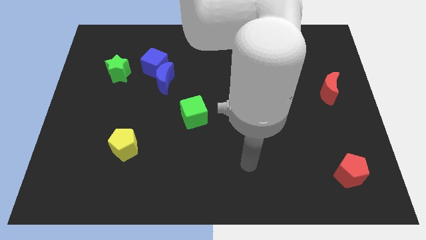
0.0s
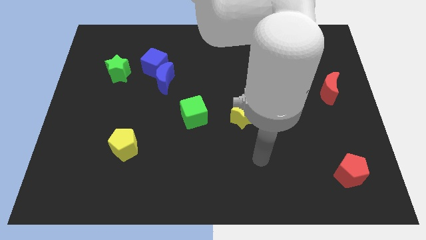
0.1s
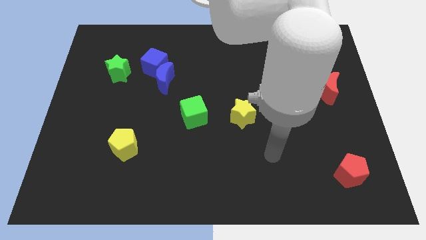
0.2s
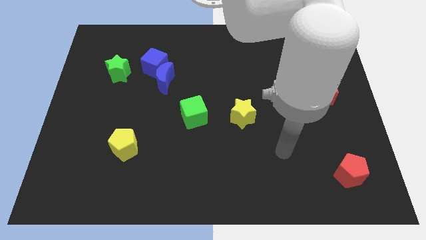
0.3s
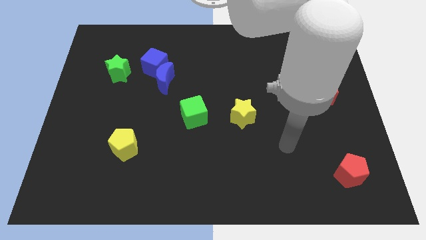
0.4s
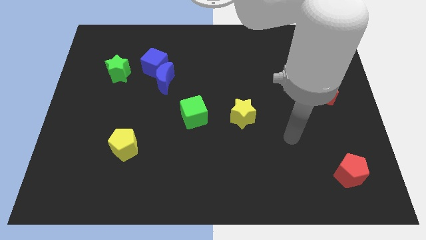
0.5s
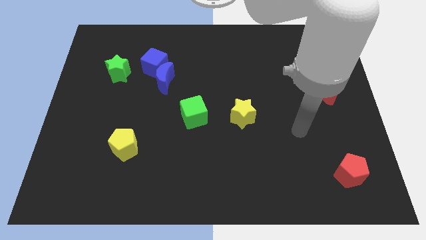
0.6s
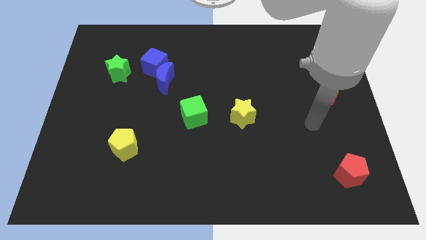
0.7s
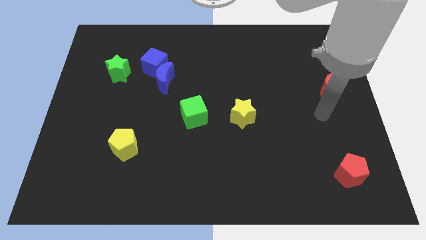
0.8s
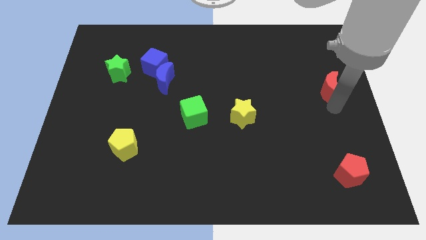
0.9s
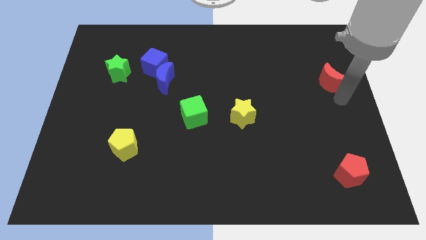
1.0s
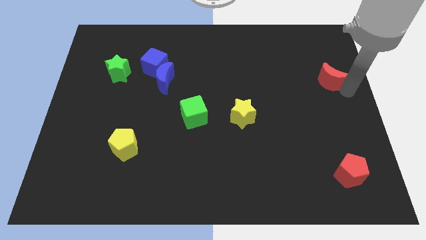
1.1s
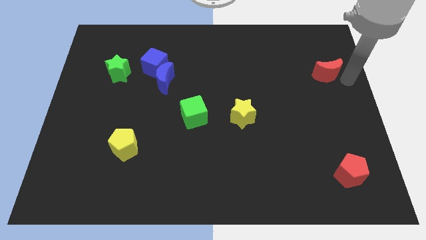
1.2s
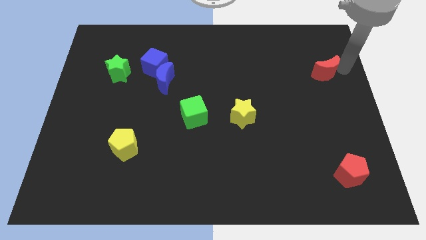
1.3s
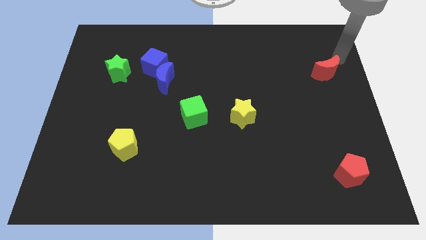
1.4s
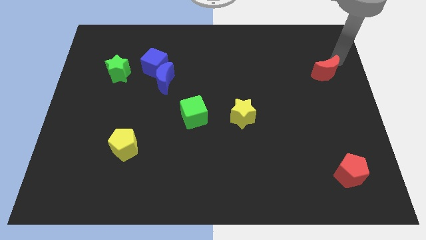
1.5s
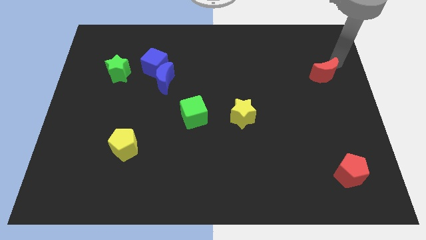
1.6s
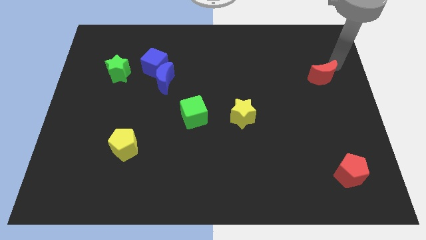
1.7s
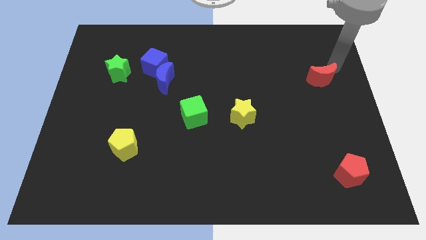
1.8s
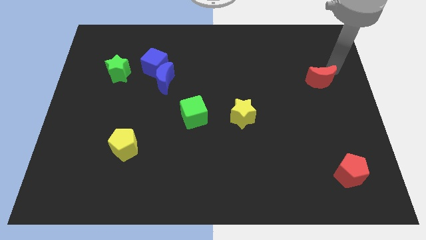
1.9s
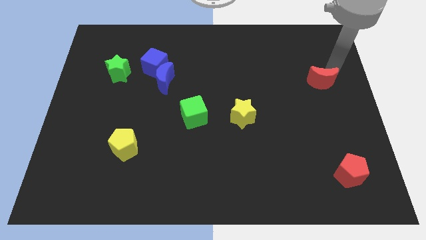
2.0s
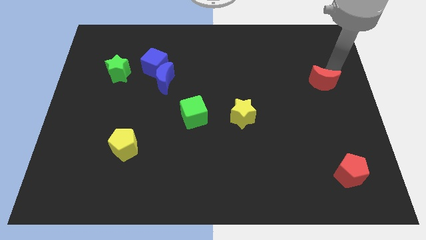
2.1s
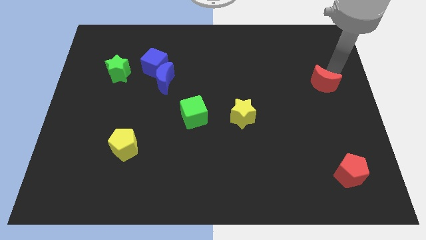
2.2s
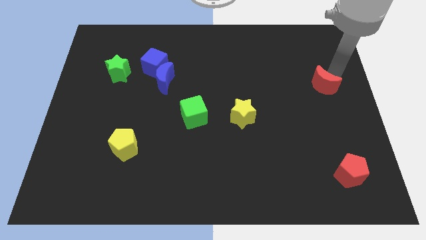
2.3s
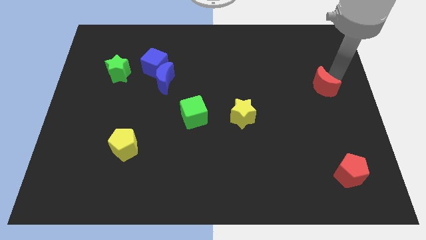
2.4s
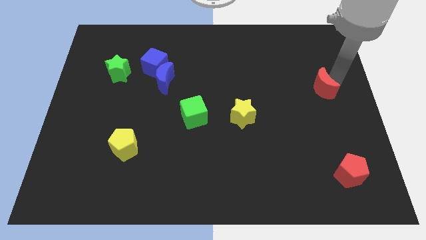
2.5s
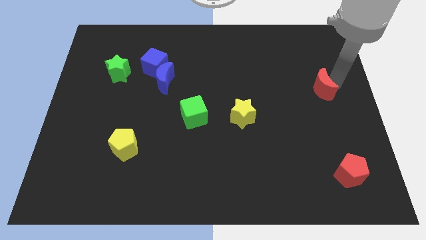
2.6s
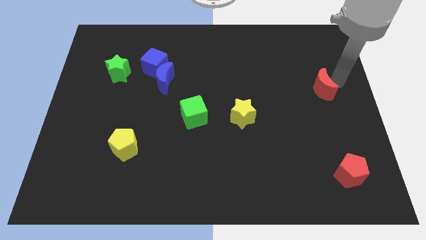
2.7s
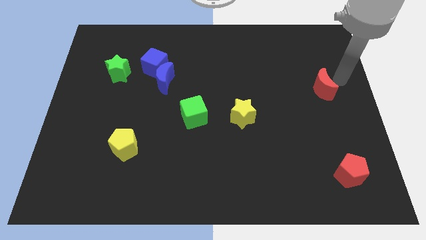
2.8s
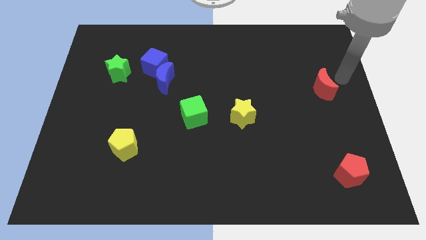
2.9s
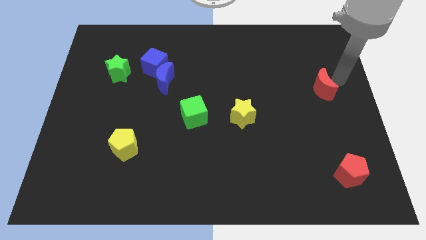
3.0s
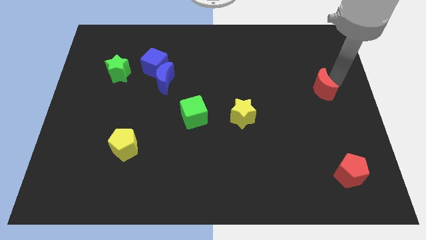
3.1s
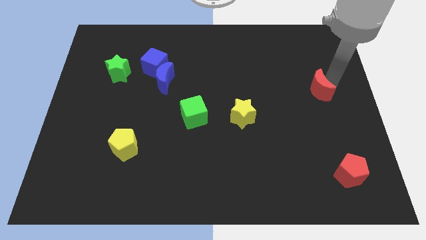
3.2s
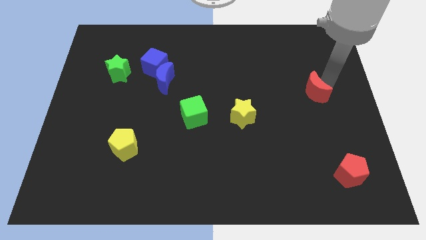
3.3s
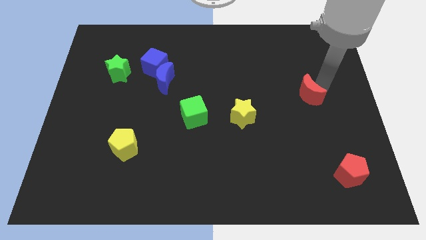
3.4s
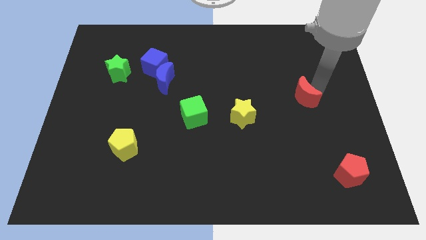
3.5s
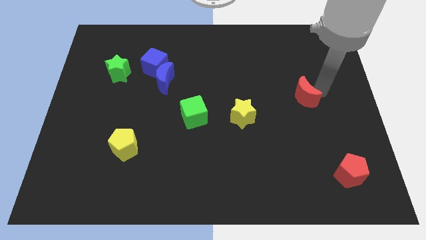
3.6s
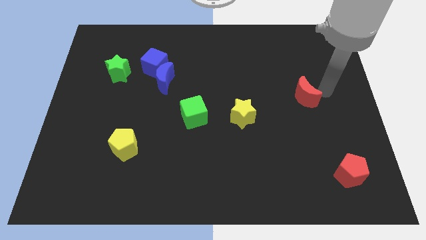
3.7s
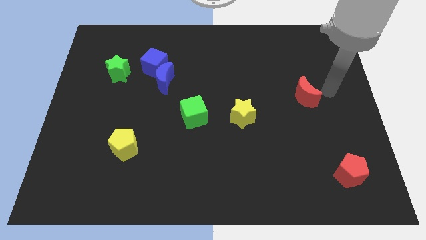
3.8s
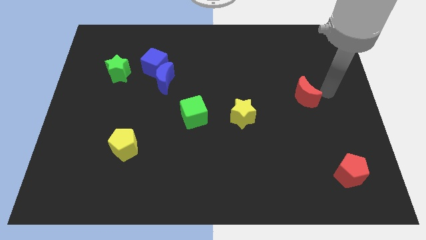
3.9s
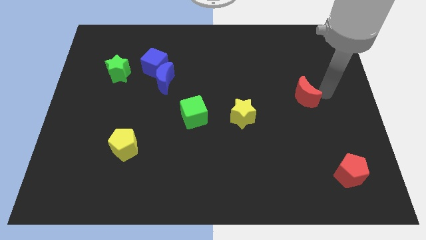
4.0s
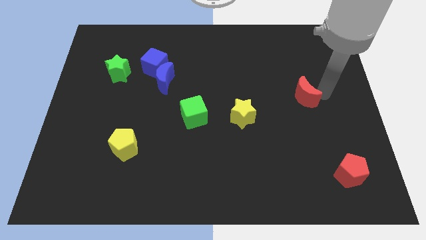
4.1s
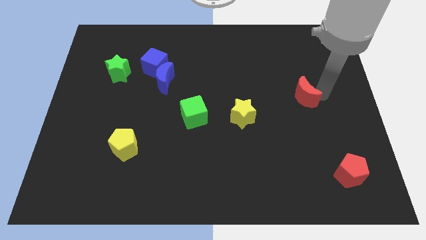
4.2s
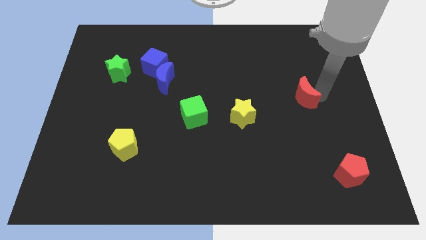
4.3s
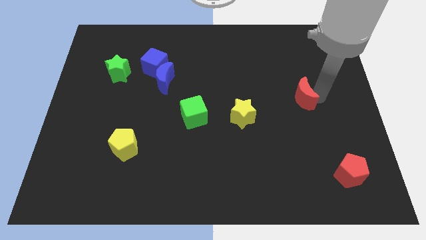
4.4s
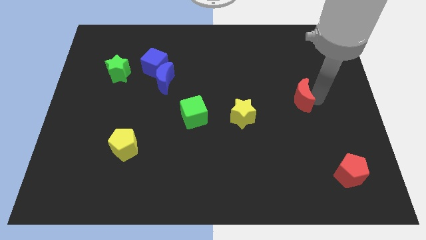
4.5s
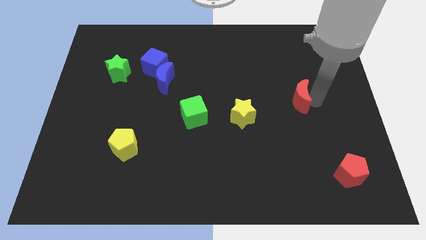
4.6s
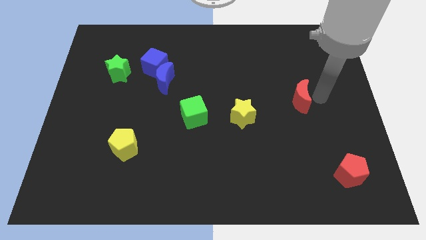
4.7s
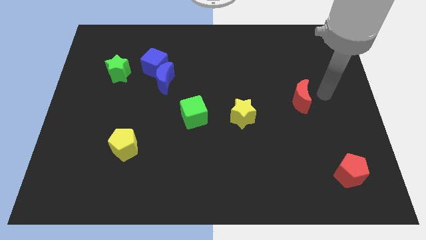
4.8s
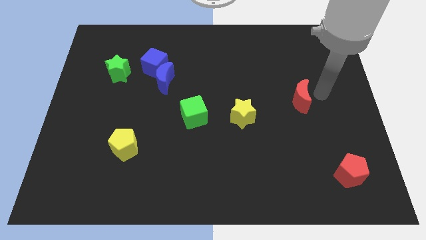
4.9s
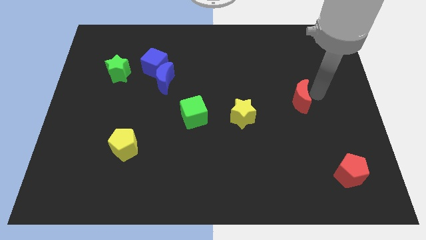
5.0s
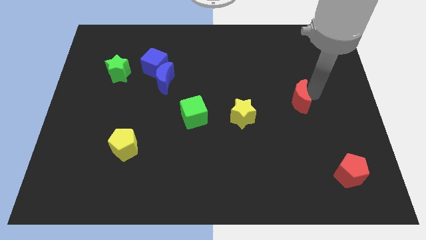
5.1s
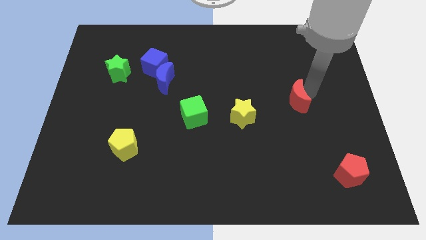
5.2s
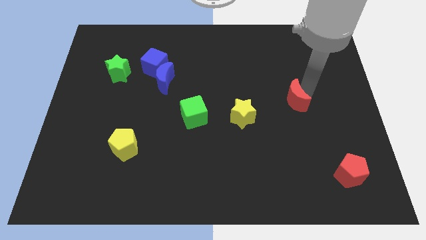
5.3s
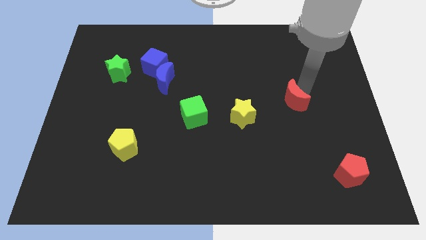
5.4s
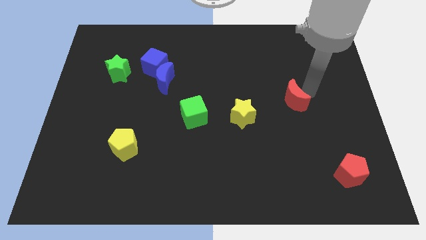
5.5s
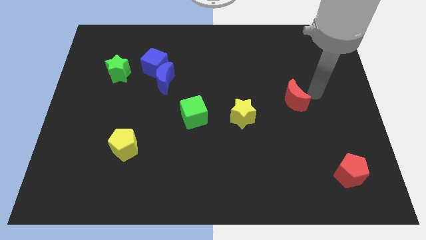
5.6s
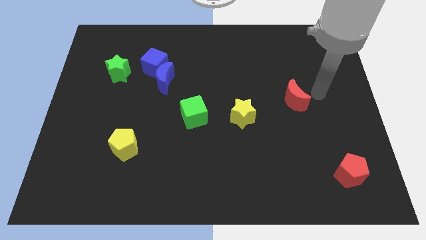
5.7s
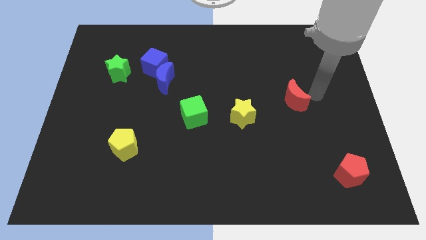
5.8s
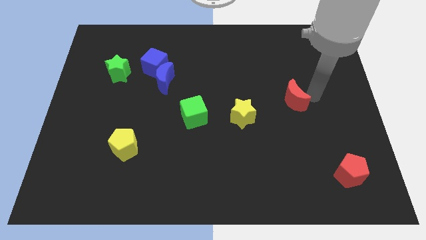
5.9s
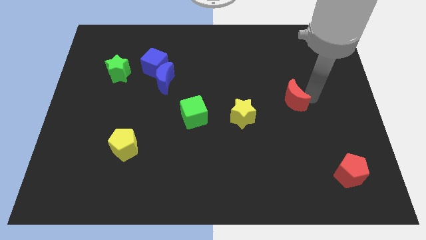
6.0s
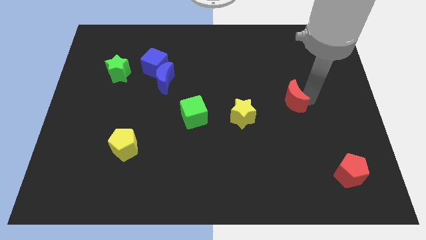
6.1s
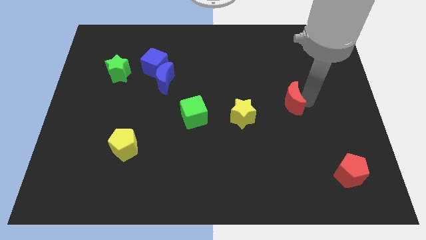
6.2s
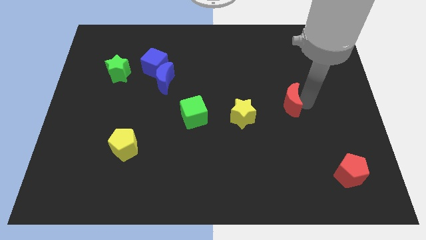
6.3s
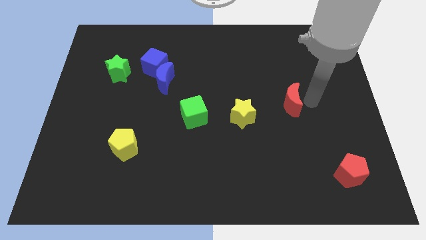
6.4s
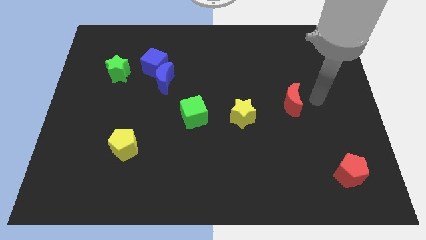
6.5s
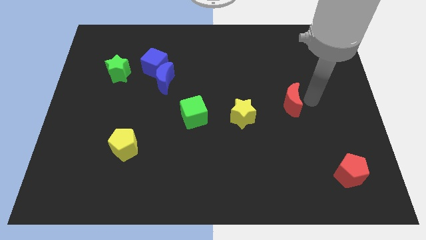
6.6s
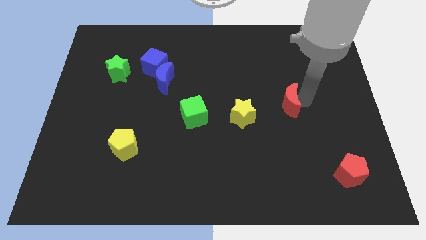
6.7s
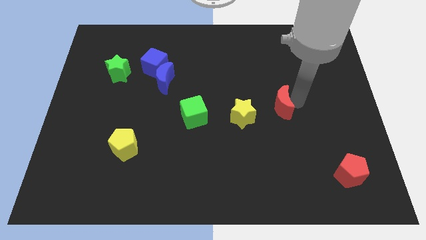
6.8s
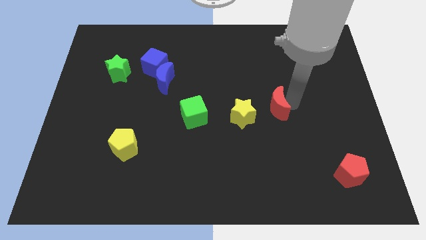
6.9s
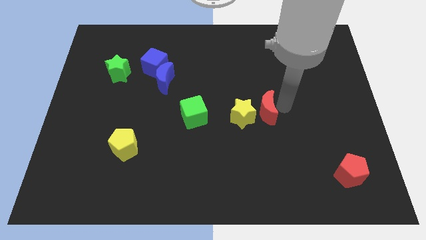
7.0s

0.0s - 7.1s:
push the red moon to the center
